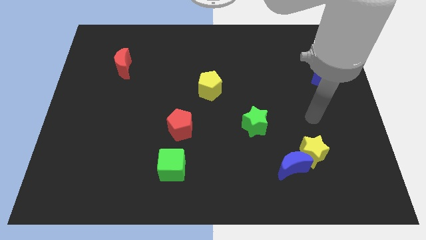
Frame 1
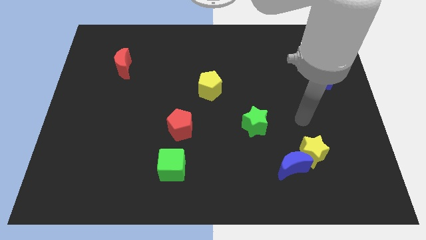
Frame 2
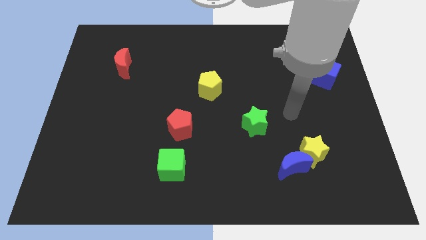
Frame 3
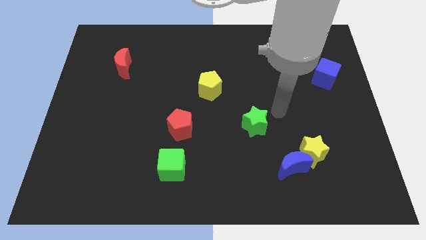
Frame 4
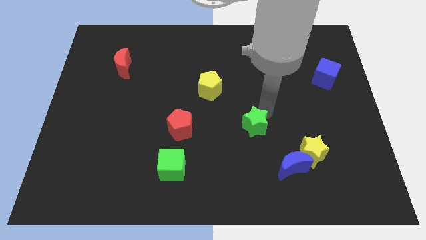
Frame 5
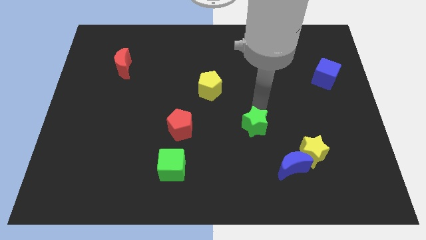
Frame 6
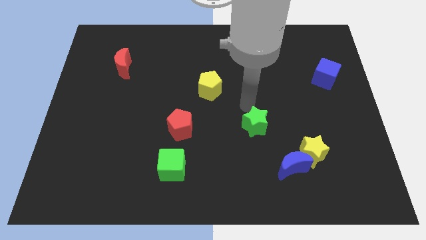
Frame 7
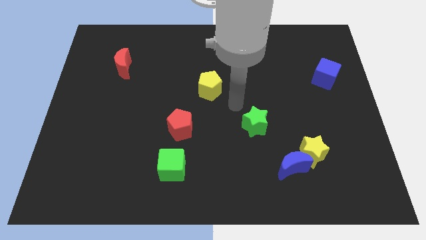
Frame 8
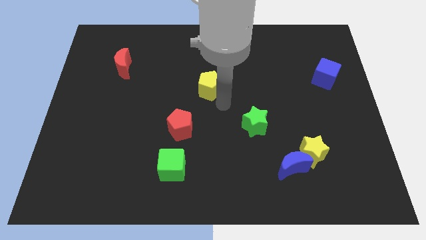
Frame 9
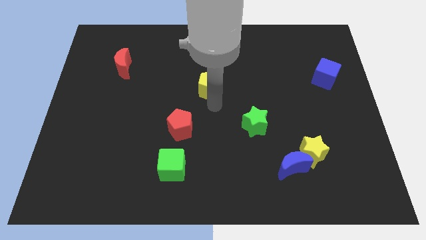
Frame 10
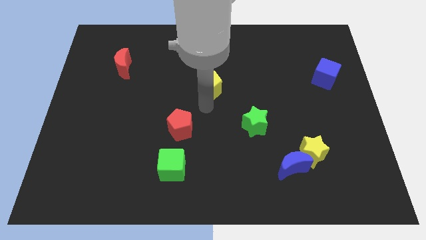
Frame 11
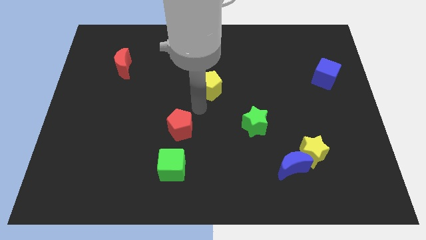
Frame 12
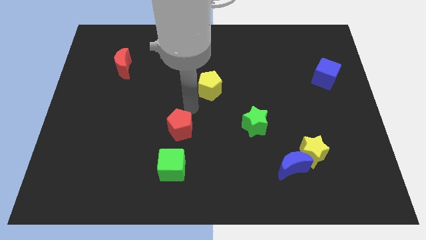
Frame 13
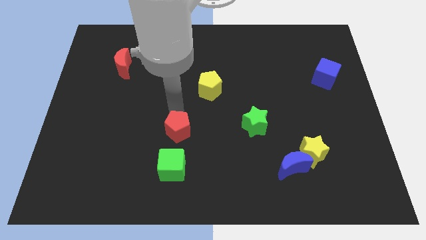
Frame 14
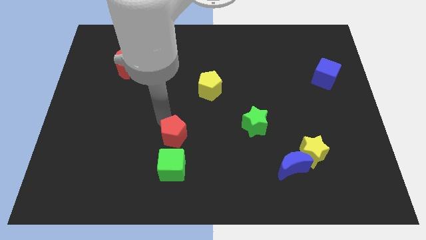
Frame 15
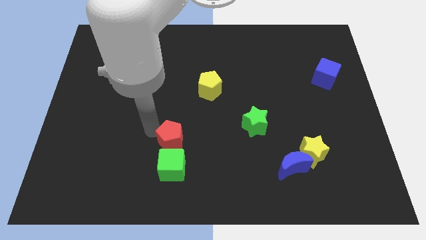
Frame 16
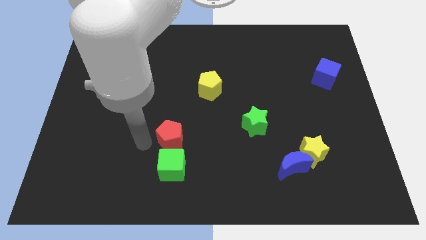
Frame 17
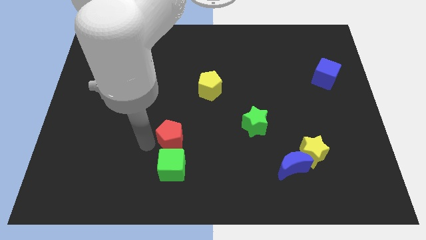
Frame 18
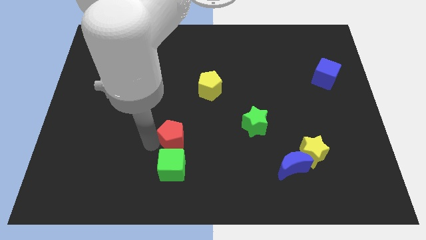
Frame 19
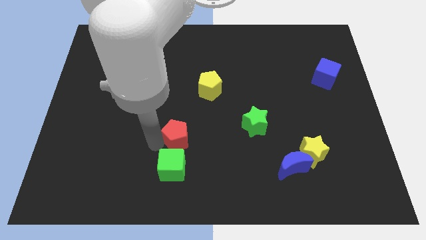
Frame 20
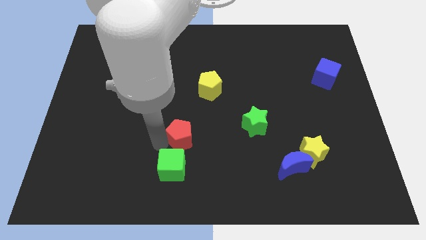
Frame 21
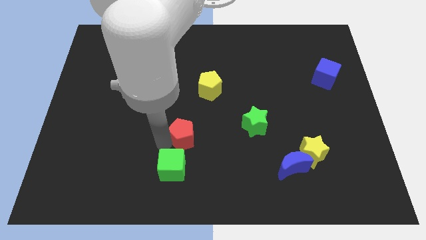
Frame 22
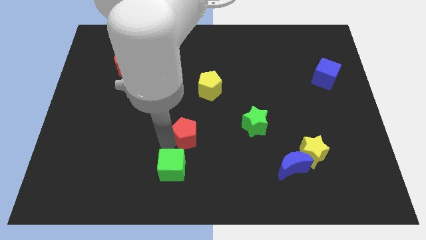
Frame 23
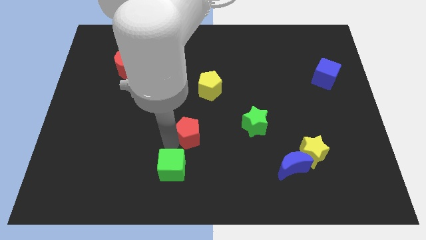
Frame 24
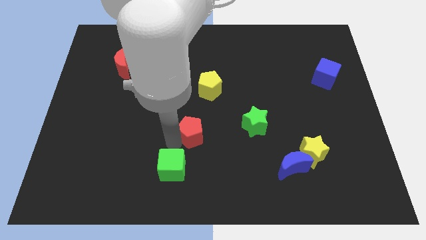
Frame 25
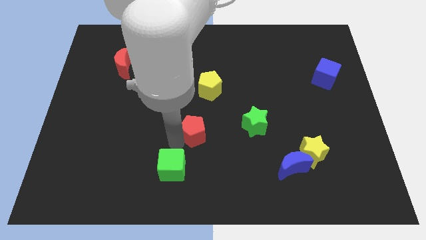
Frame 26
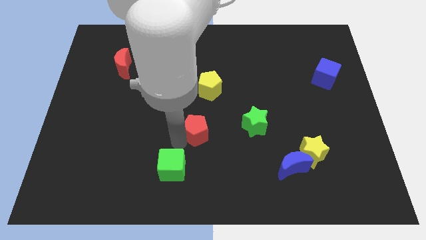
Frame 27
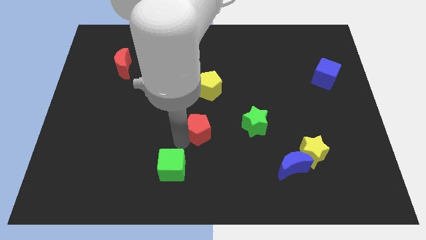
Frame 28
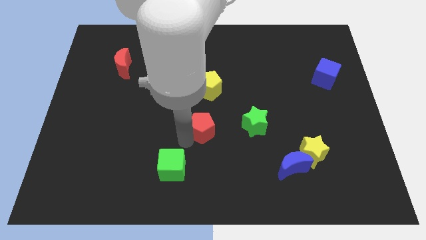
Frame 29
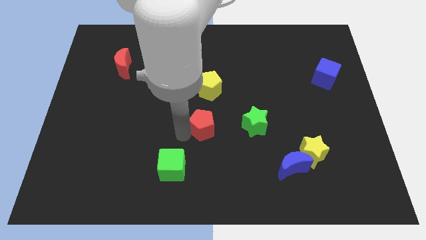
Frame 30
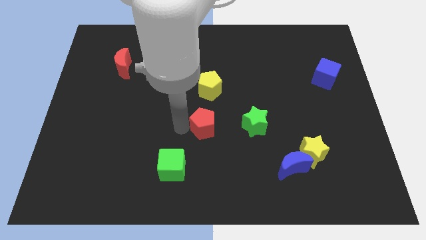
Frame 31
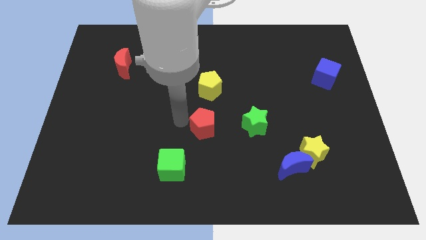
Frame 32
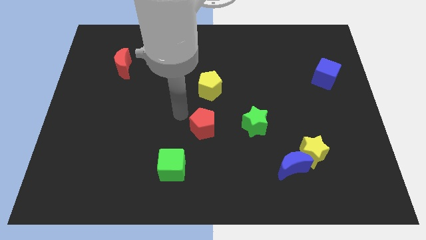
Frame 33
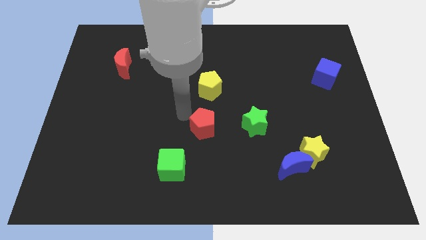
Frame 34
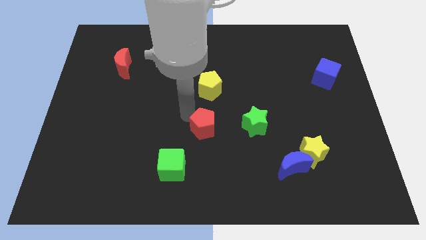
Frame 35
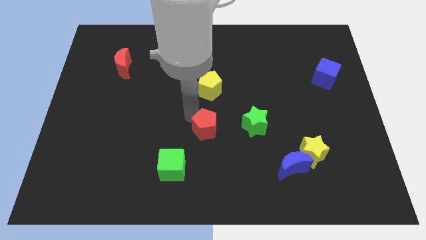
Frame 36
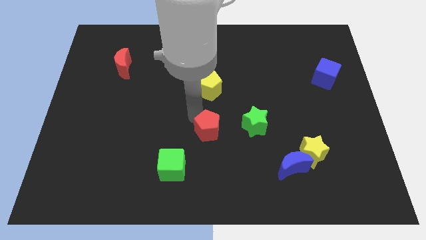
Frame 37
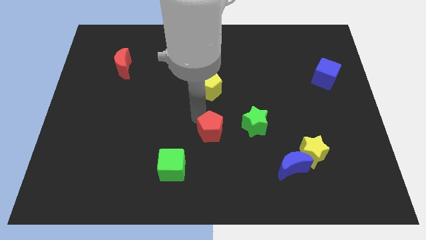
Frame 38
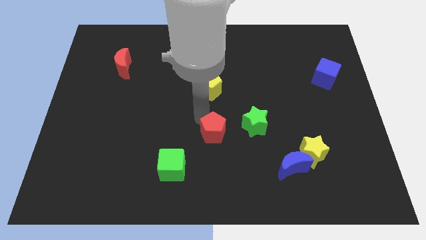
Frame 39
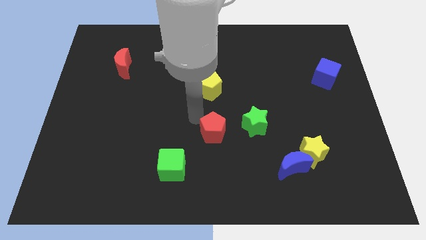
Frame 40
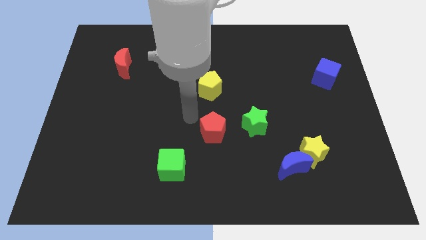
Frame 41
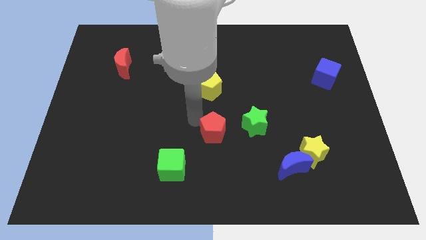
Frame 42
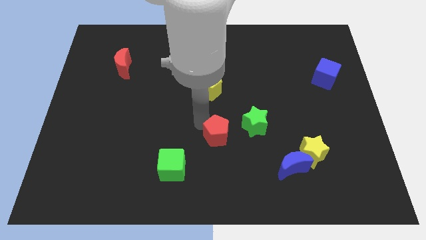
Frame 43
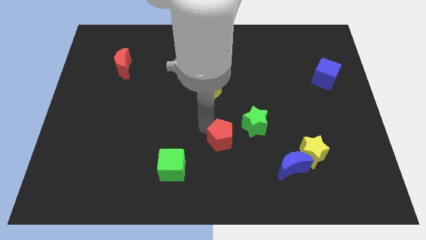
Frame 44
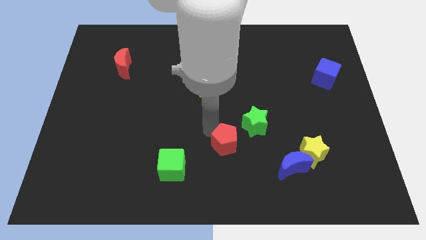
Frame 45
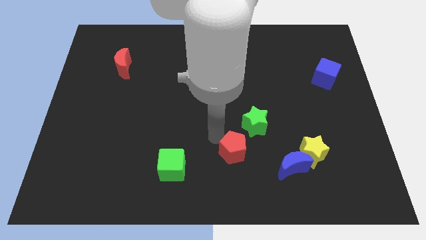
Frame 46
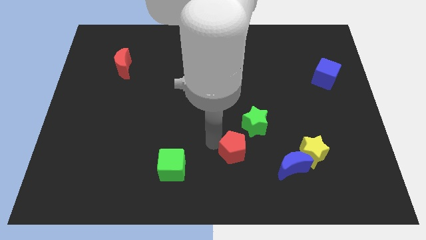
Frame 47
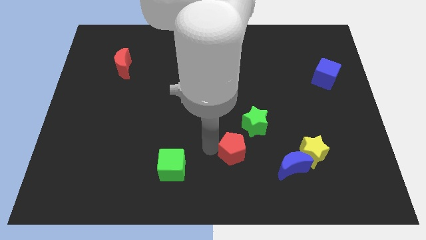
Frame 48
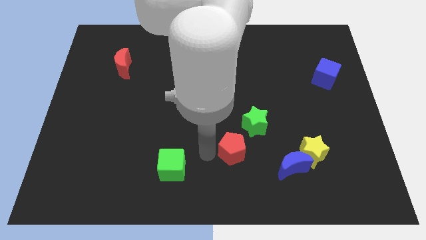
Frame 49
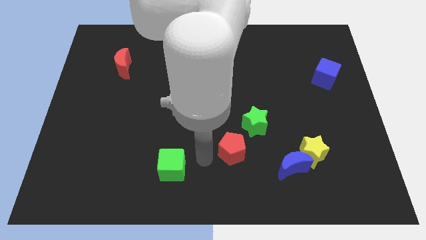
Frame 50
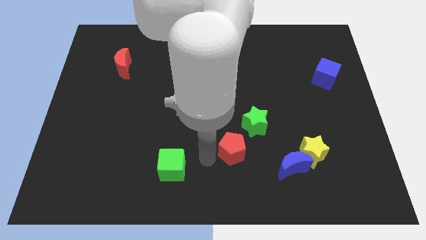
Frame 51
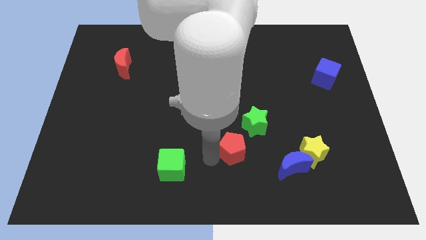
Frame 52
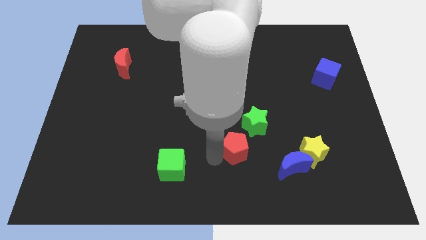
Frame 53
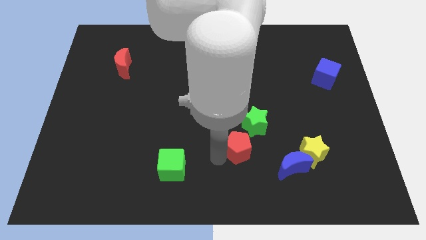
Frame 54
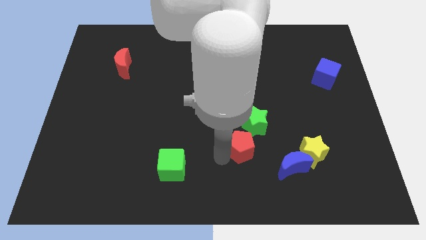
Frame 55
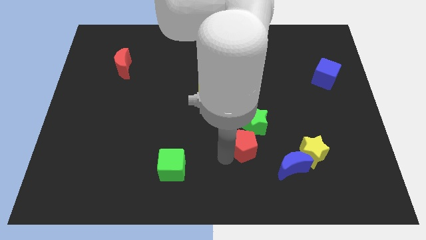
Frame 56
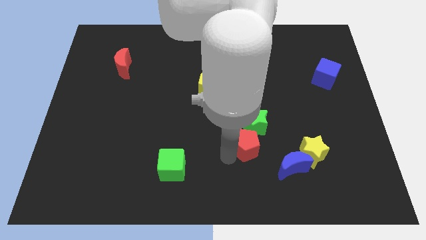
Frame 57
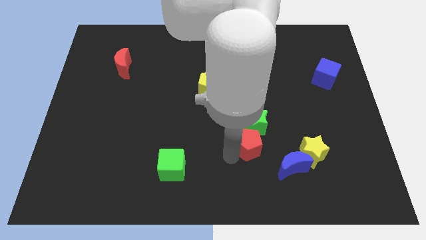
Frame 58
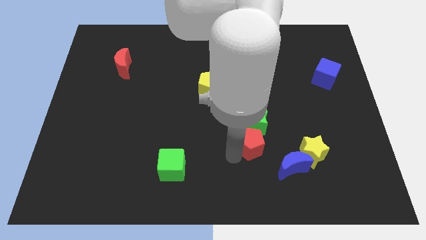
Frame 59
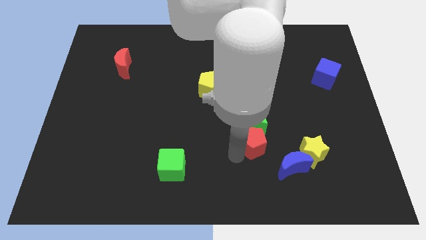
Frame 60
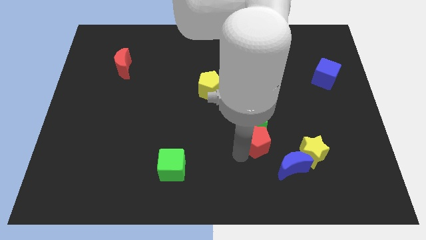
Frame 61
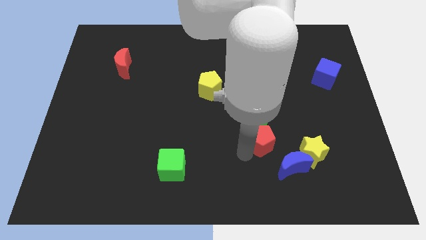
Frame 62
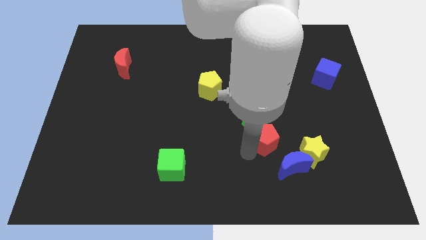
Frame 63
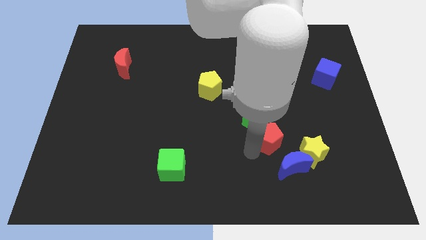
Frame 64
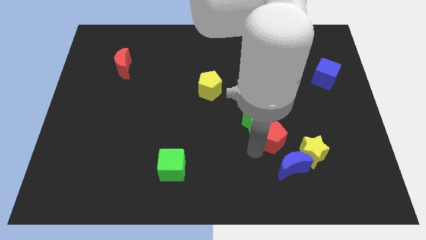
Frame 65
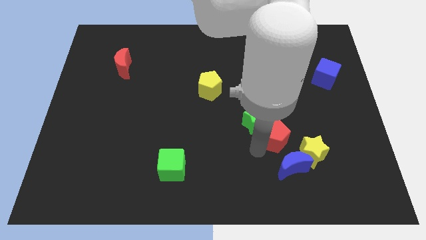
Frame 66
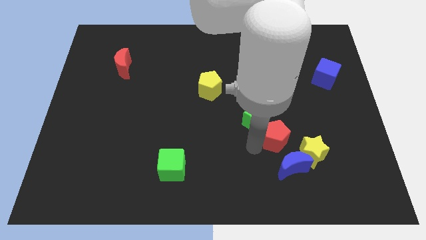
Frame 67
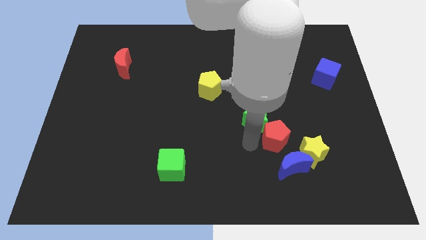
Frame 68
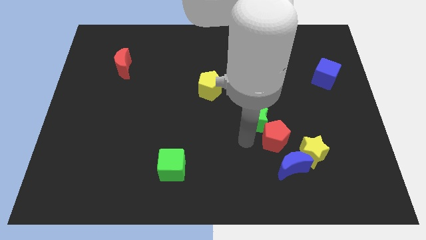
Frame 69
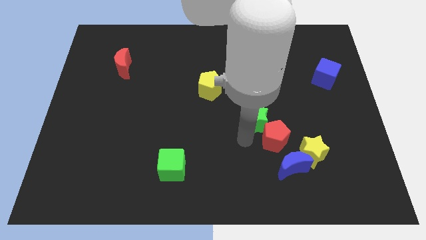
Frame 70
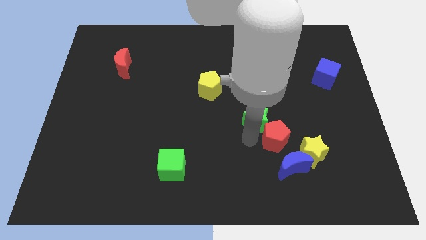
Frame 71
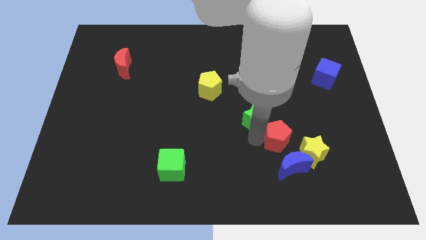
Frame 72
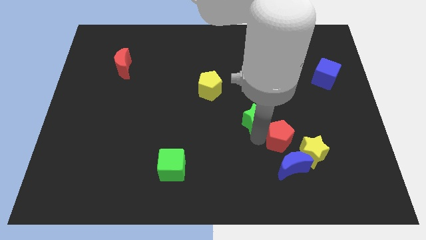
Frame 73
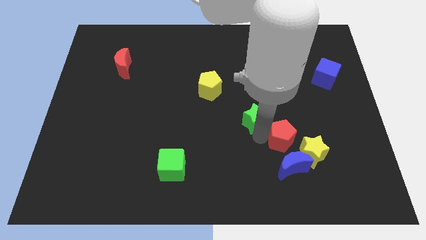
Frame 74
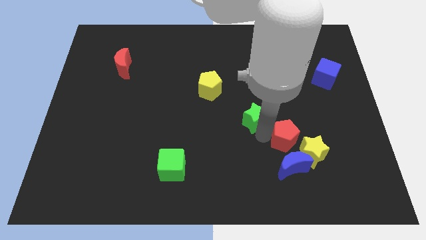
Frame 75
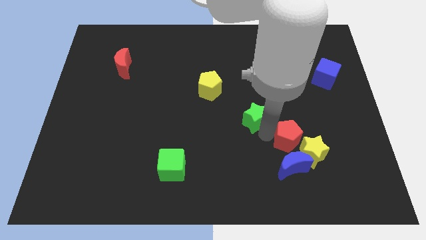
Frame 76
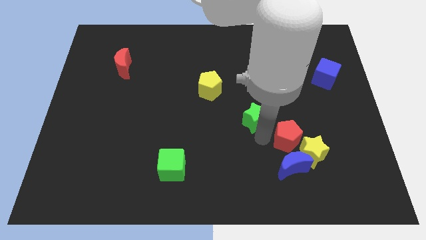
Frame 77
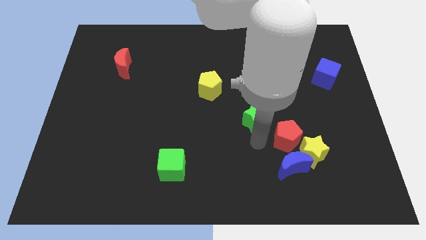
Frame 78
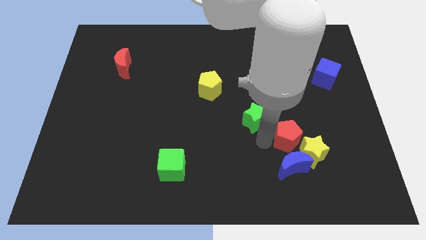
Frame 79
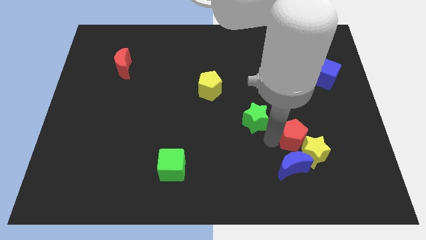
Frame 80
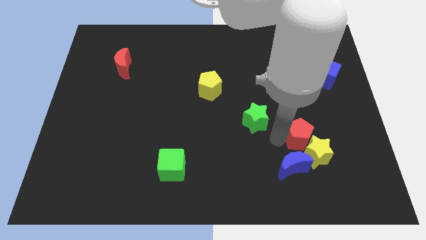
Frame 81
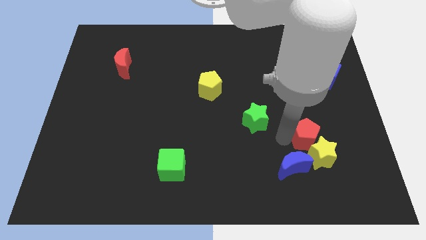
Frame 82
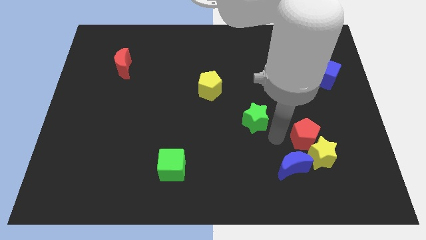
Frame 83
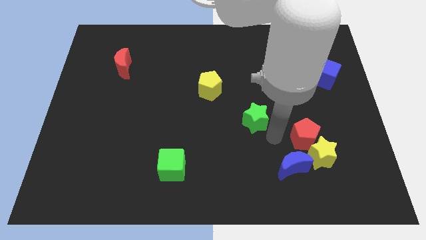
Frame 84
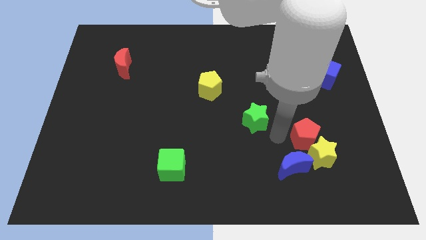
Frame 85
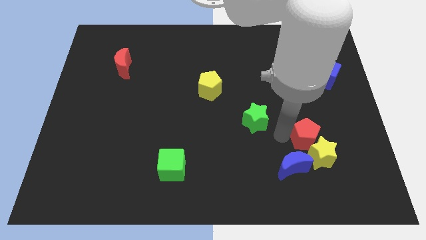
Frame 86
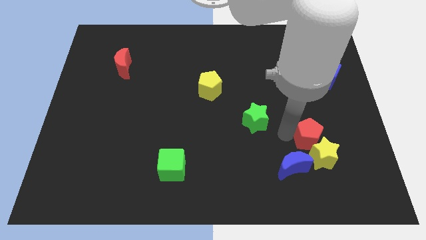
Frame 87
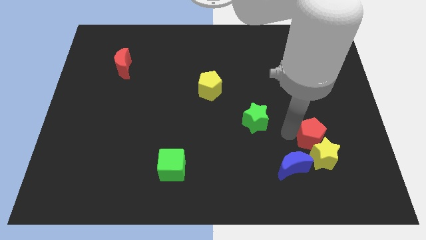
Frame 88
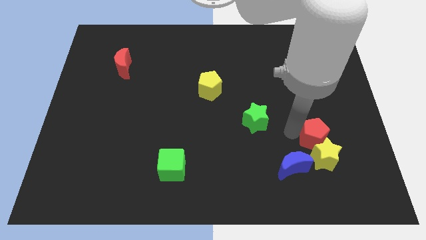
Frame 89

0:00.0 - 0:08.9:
move the red pentagon to the top right side of the yellow star
